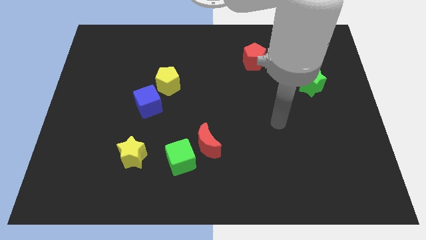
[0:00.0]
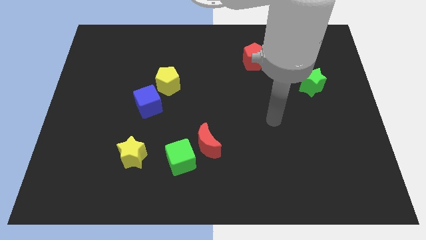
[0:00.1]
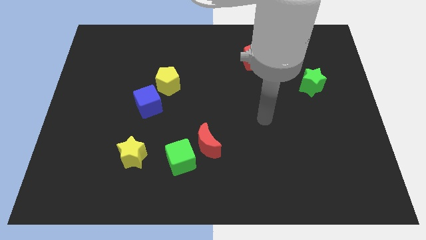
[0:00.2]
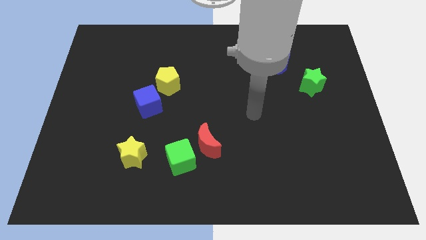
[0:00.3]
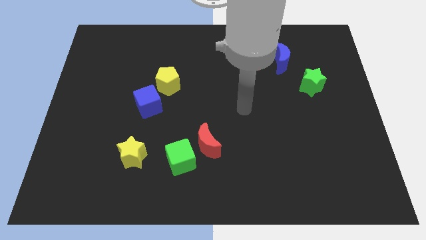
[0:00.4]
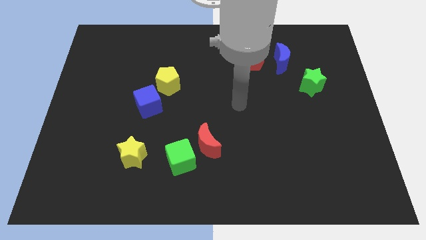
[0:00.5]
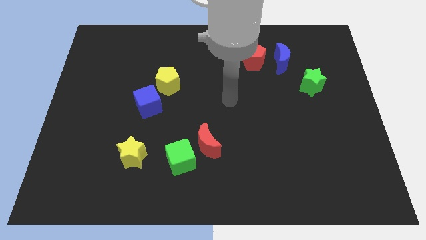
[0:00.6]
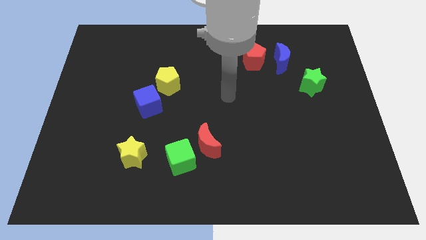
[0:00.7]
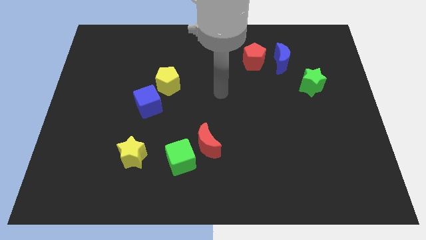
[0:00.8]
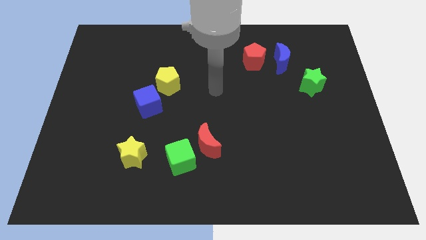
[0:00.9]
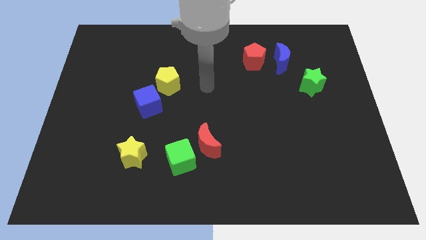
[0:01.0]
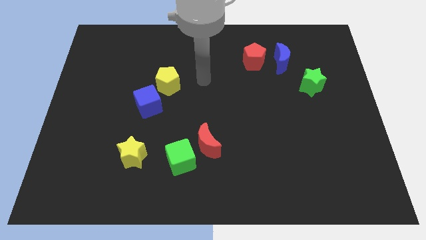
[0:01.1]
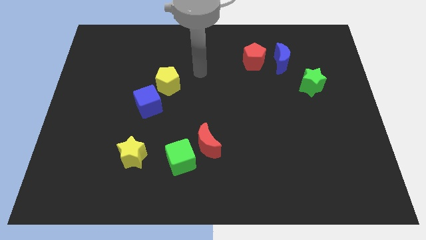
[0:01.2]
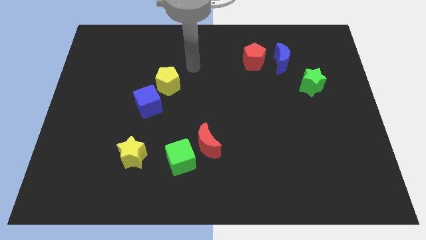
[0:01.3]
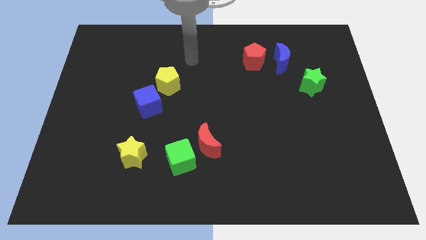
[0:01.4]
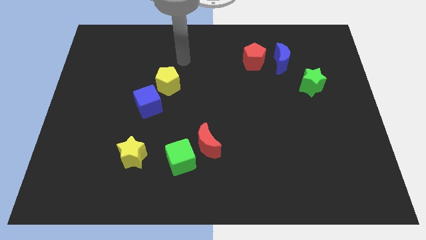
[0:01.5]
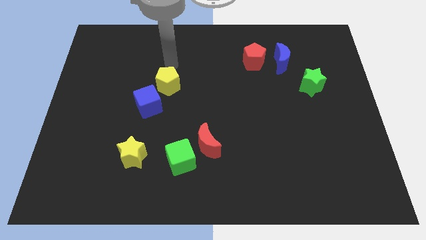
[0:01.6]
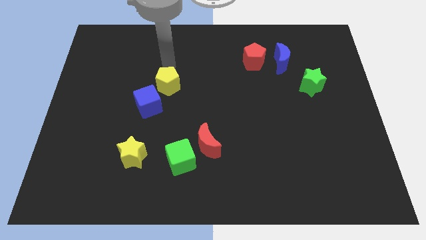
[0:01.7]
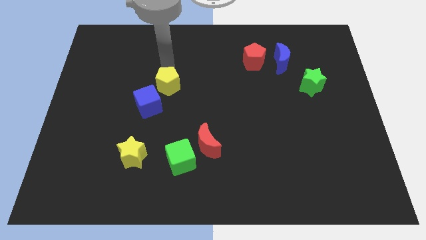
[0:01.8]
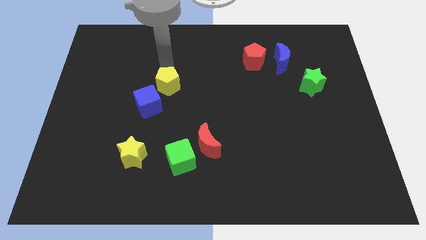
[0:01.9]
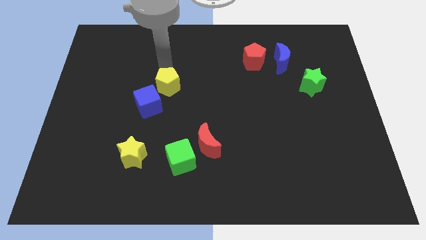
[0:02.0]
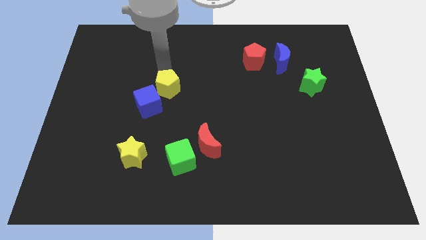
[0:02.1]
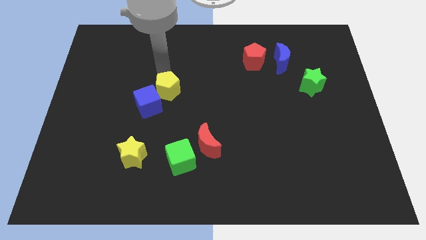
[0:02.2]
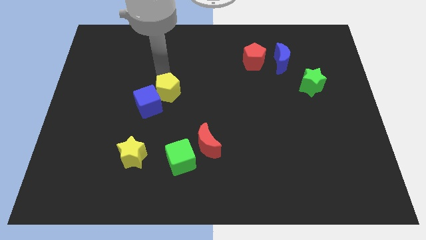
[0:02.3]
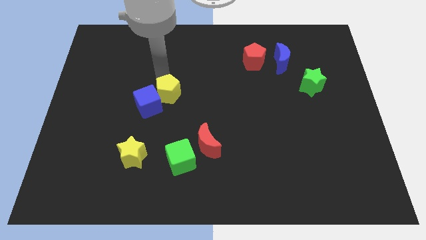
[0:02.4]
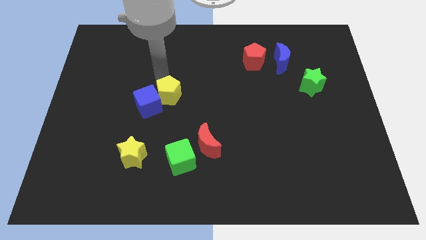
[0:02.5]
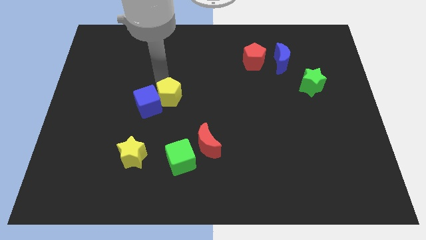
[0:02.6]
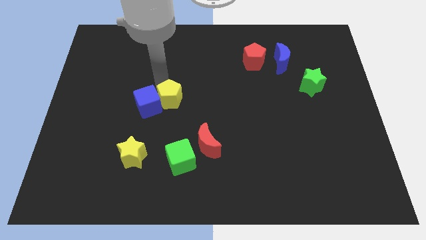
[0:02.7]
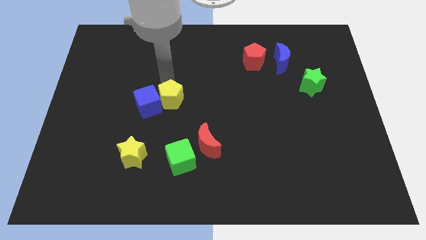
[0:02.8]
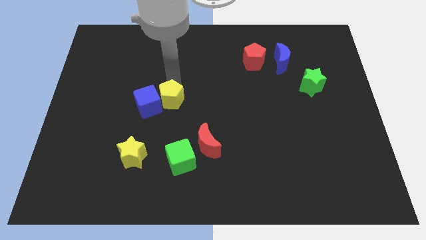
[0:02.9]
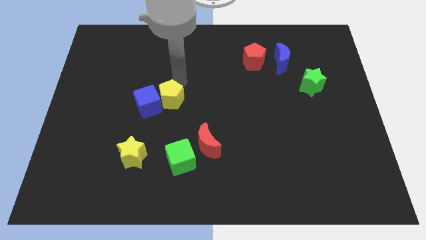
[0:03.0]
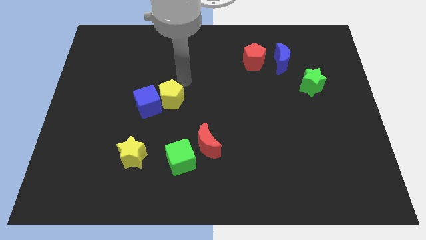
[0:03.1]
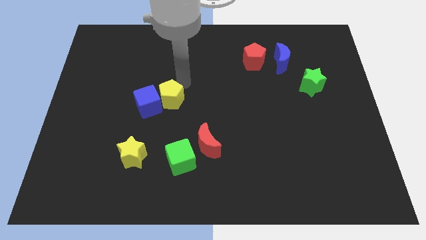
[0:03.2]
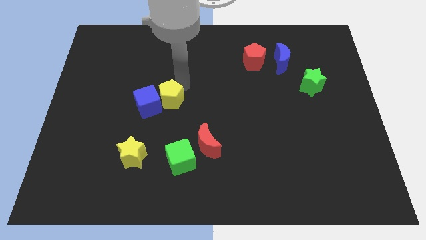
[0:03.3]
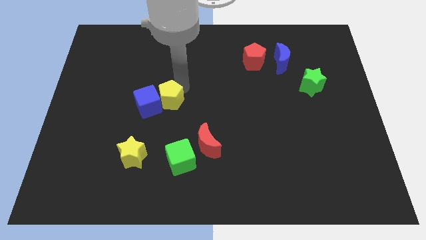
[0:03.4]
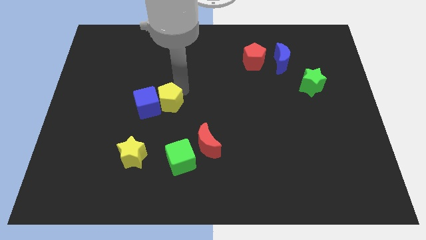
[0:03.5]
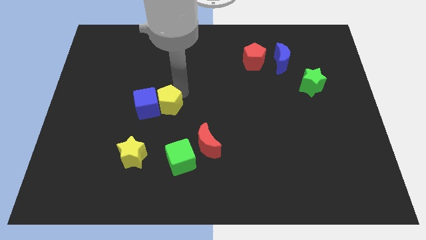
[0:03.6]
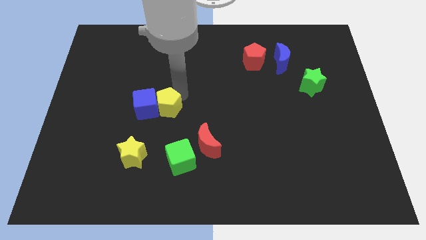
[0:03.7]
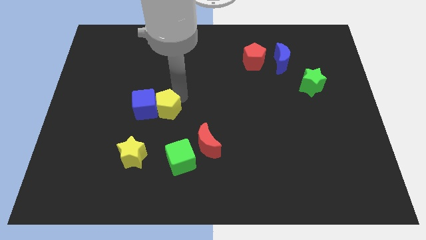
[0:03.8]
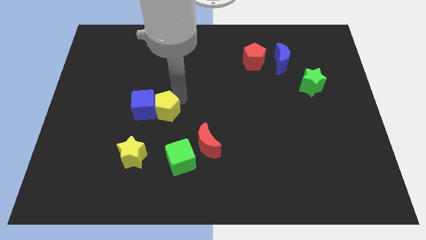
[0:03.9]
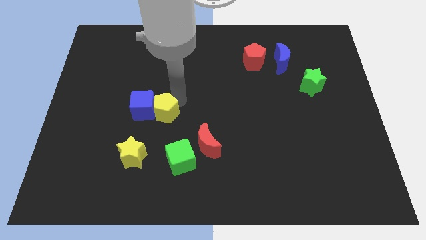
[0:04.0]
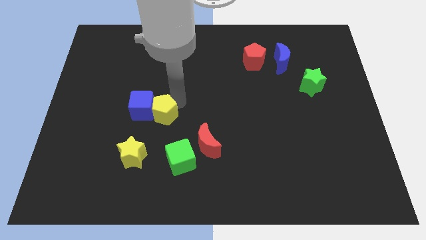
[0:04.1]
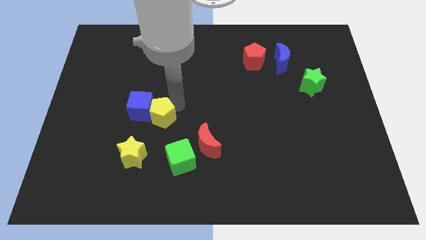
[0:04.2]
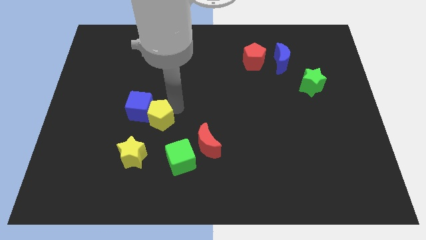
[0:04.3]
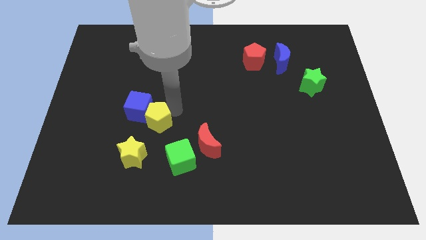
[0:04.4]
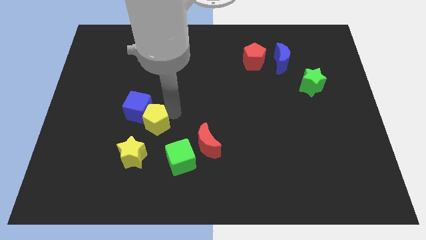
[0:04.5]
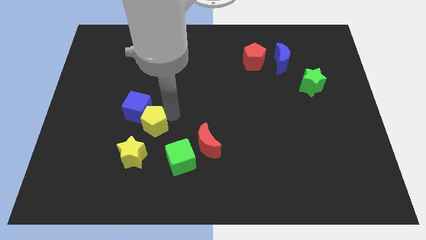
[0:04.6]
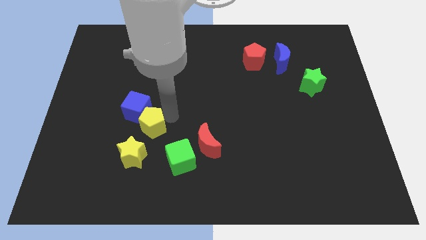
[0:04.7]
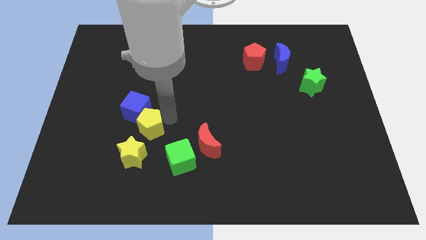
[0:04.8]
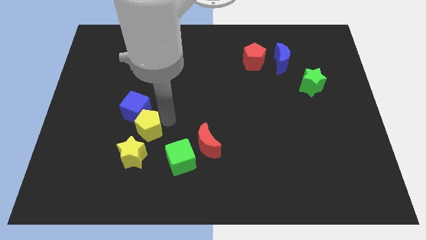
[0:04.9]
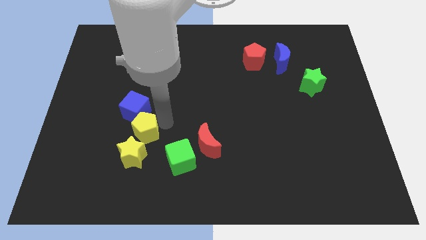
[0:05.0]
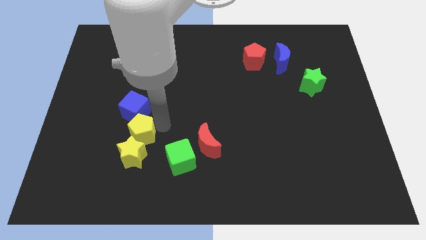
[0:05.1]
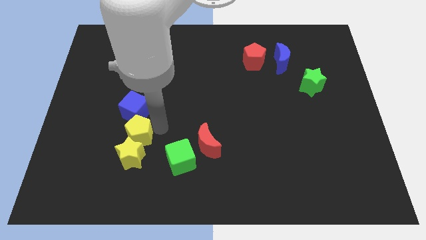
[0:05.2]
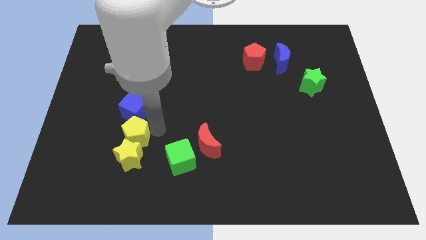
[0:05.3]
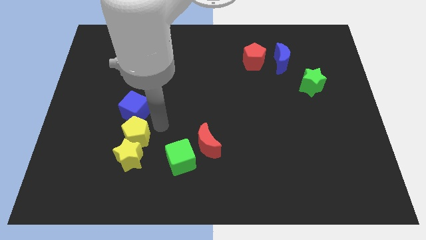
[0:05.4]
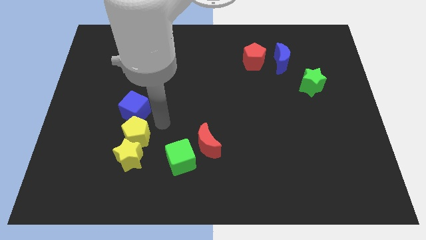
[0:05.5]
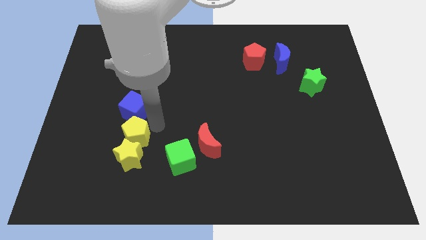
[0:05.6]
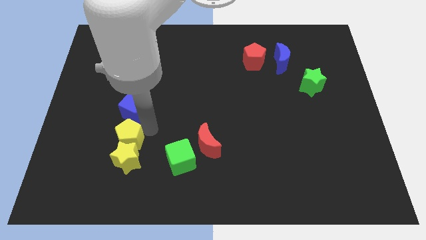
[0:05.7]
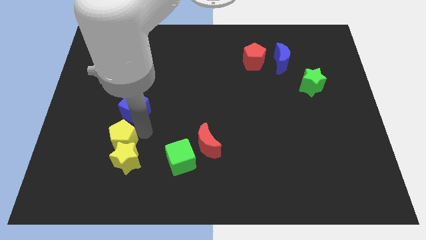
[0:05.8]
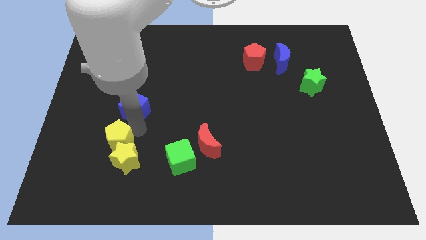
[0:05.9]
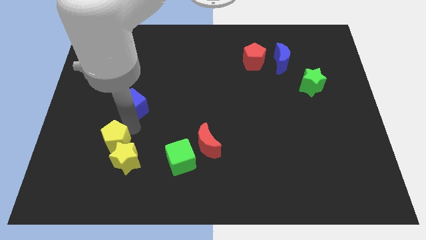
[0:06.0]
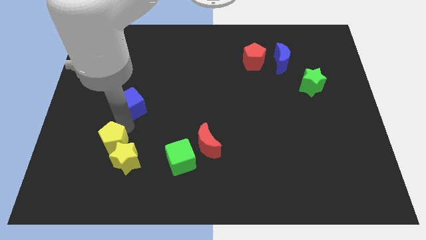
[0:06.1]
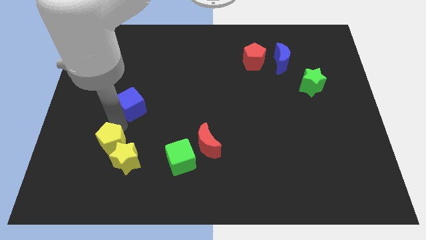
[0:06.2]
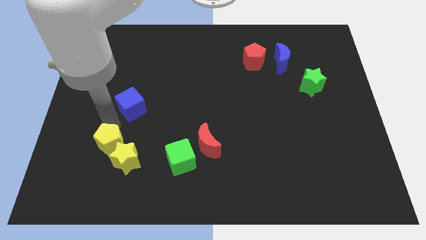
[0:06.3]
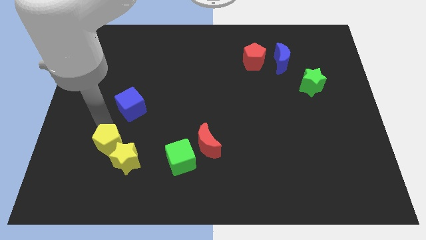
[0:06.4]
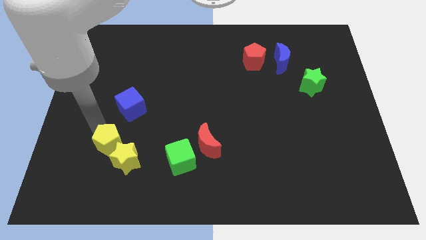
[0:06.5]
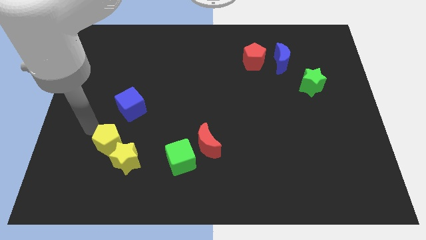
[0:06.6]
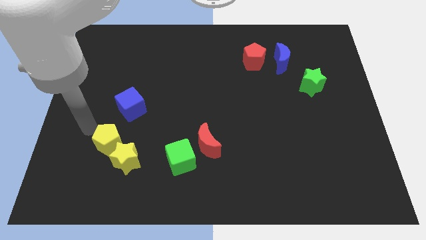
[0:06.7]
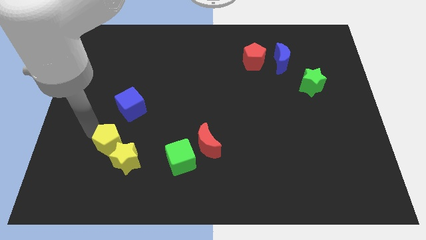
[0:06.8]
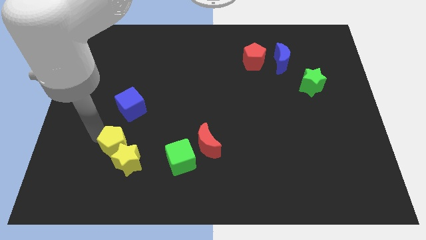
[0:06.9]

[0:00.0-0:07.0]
put the yellow pentagon to the left side of the green cube

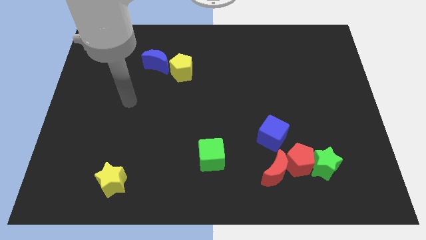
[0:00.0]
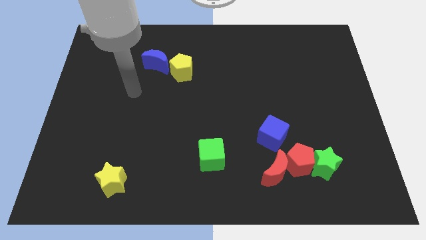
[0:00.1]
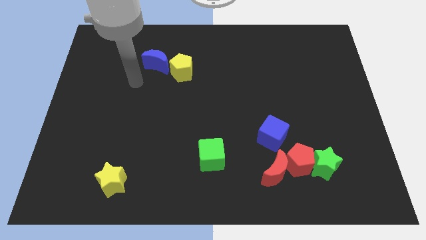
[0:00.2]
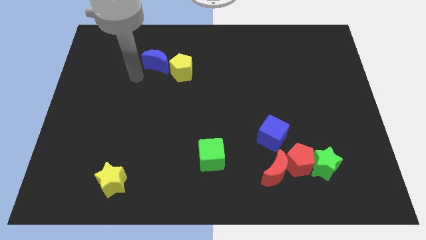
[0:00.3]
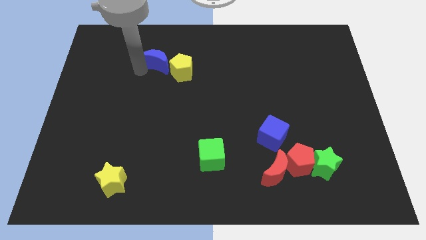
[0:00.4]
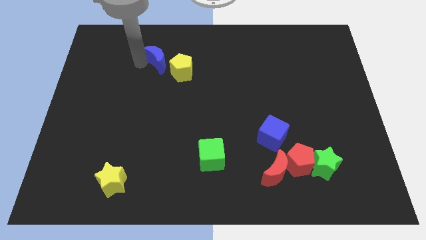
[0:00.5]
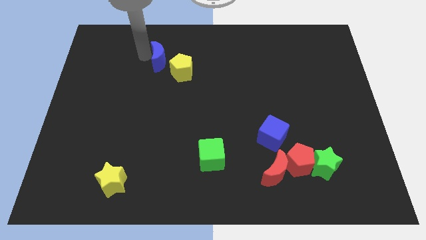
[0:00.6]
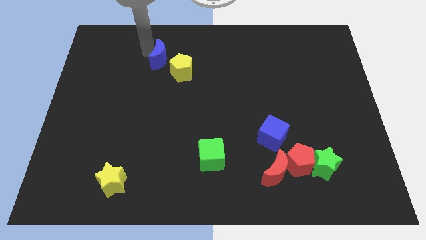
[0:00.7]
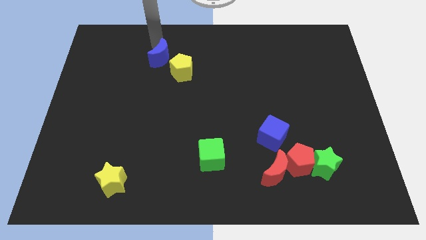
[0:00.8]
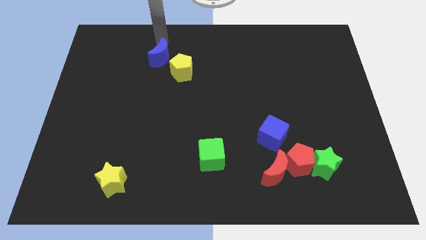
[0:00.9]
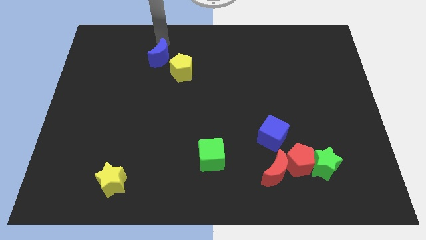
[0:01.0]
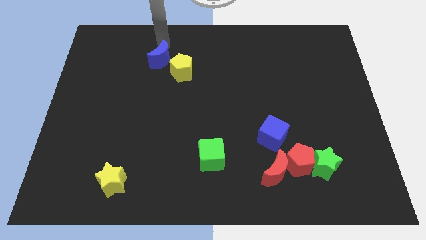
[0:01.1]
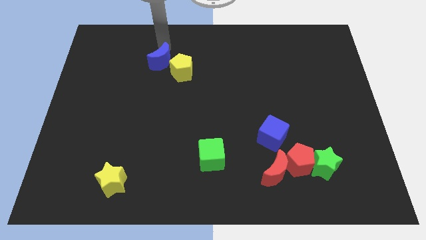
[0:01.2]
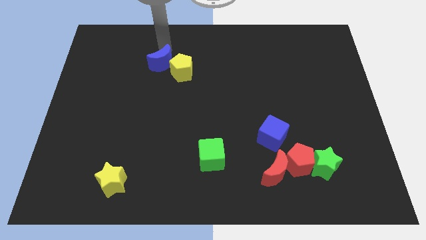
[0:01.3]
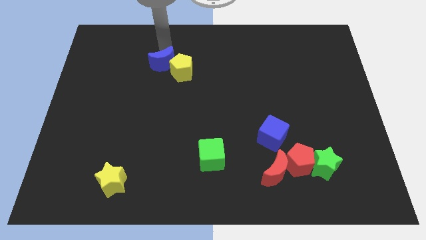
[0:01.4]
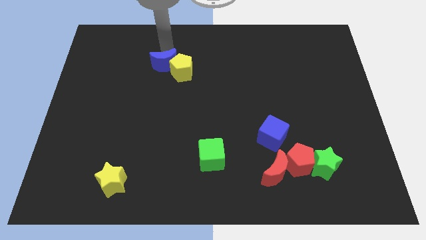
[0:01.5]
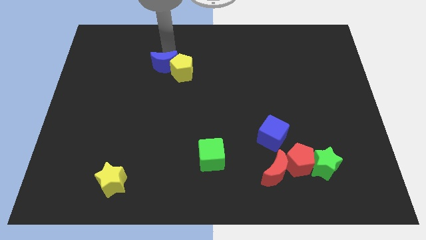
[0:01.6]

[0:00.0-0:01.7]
slide the blue moon to the bottom left side of the yellow pentagon
